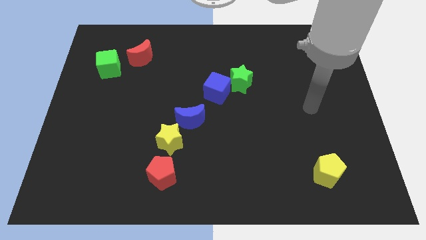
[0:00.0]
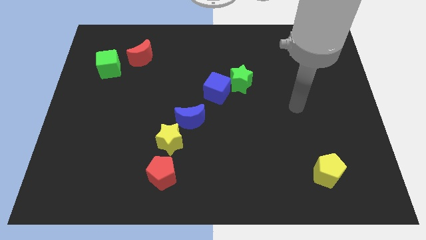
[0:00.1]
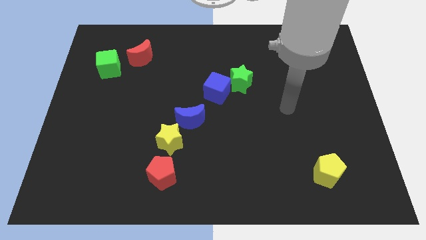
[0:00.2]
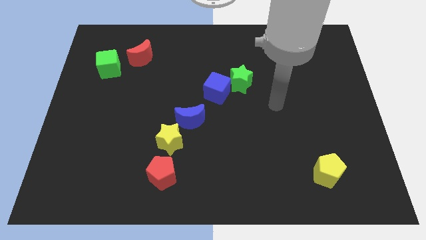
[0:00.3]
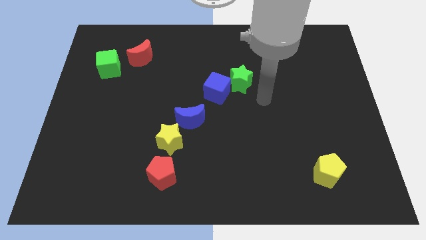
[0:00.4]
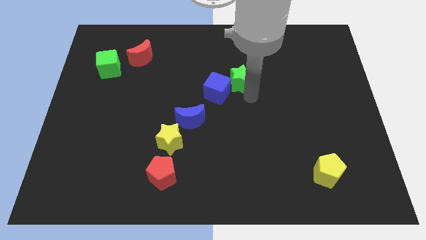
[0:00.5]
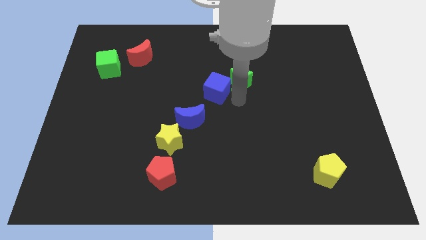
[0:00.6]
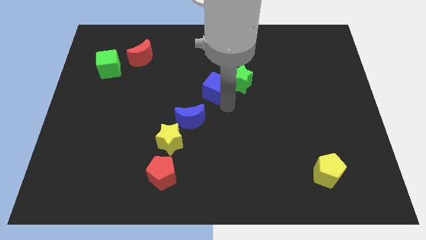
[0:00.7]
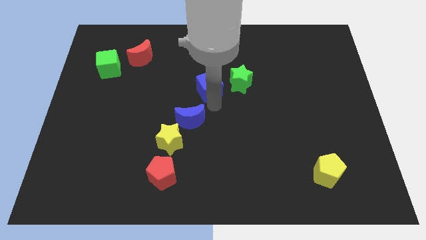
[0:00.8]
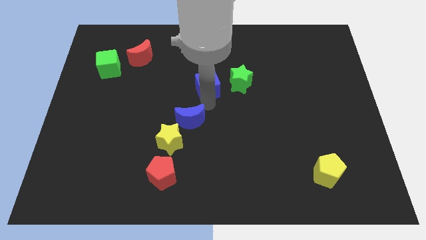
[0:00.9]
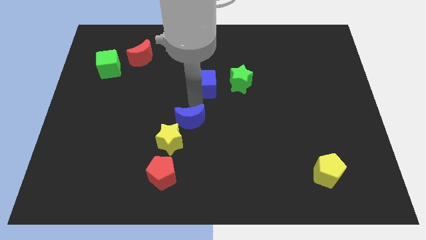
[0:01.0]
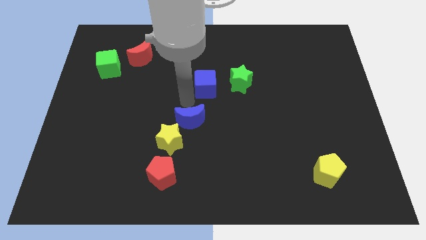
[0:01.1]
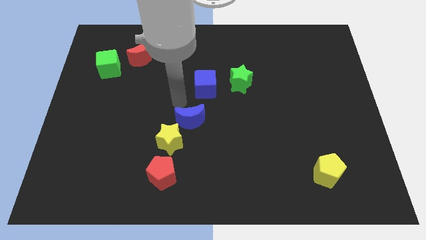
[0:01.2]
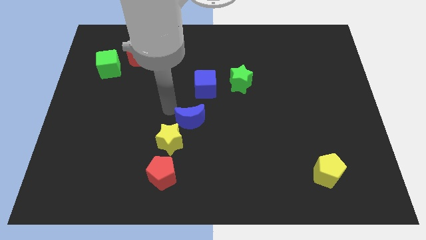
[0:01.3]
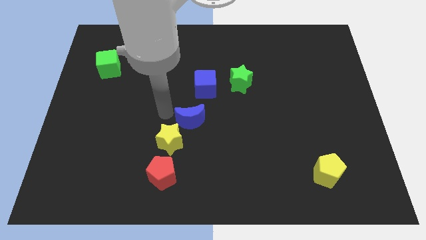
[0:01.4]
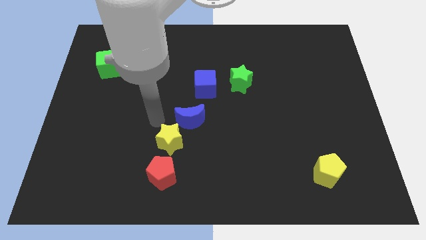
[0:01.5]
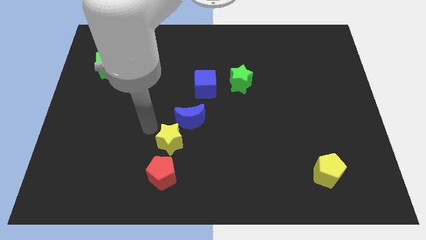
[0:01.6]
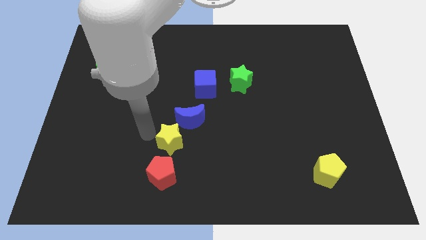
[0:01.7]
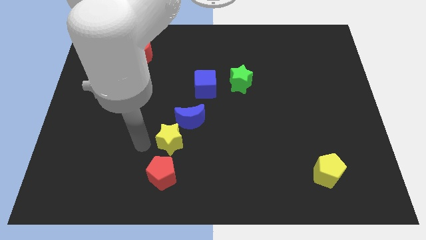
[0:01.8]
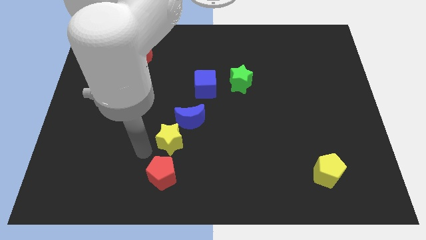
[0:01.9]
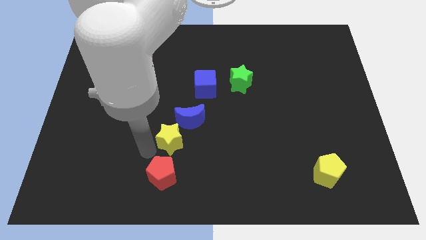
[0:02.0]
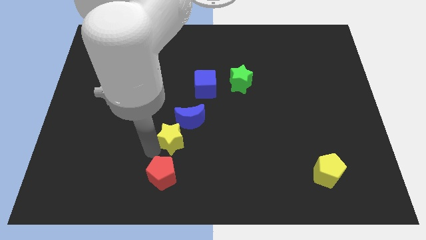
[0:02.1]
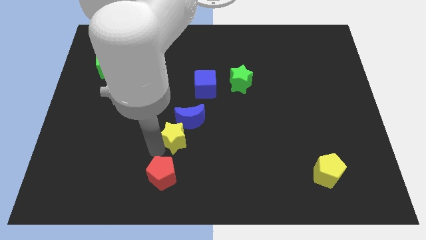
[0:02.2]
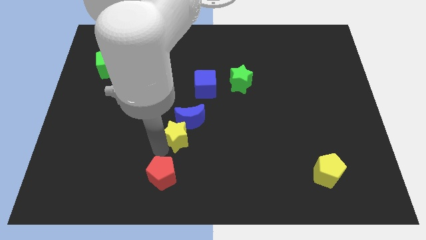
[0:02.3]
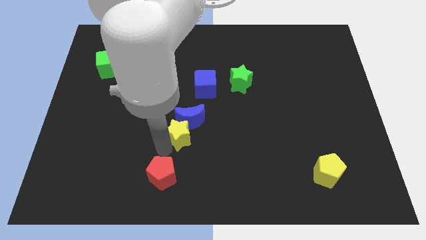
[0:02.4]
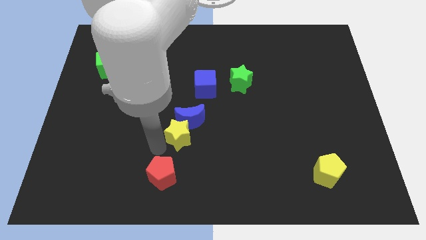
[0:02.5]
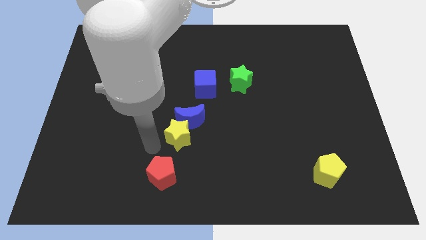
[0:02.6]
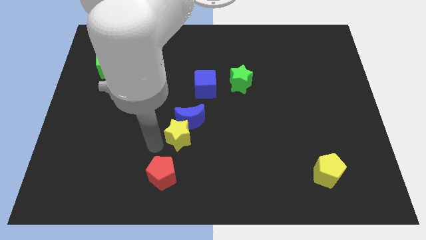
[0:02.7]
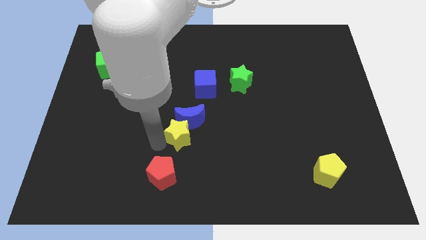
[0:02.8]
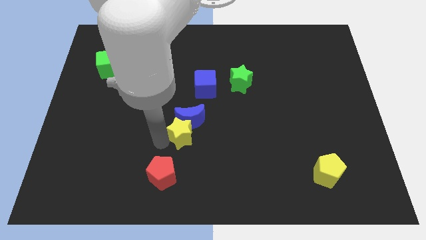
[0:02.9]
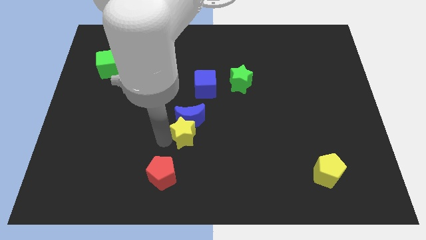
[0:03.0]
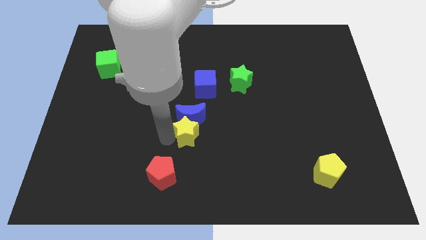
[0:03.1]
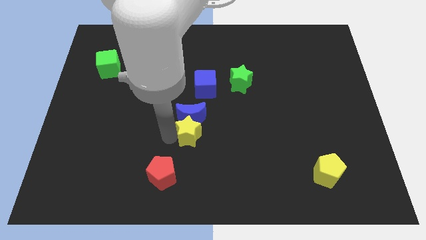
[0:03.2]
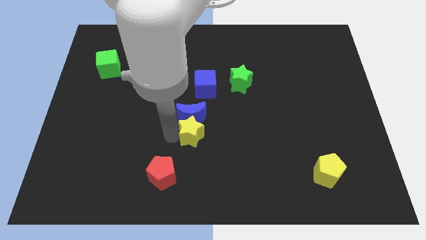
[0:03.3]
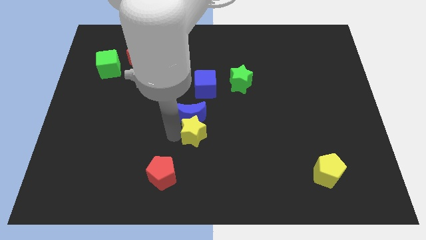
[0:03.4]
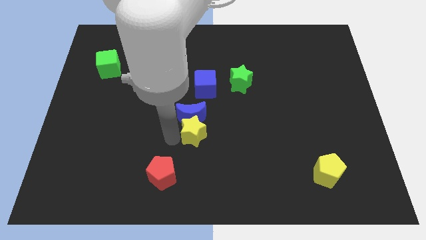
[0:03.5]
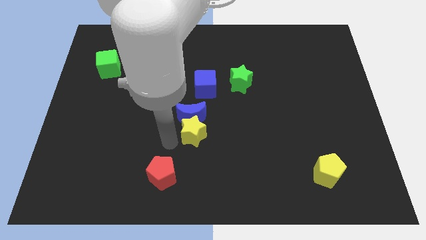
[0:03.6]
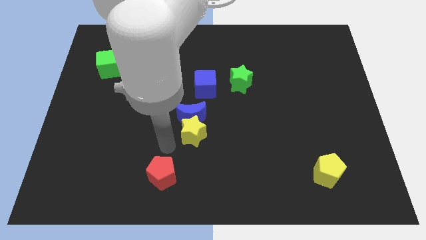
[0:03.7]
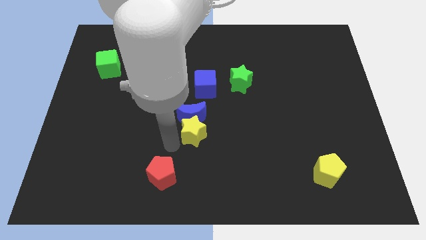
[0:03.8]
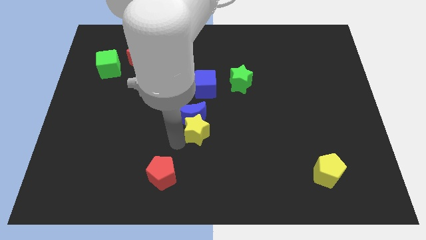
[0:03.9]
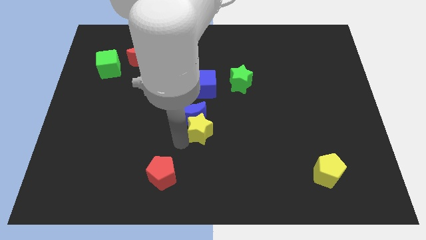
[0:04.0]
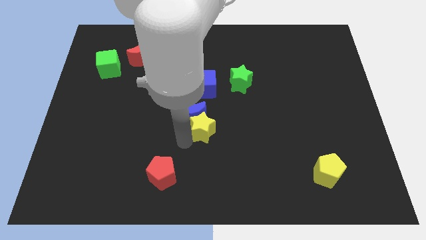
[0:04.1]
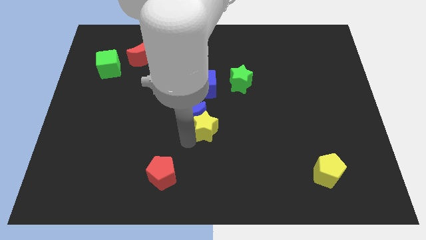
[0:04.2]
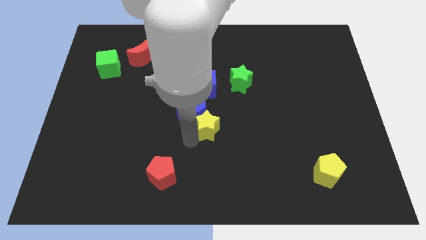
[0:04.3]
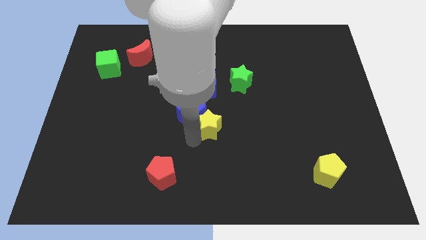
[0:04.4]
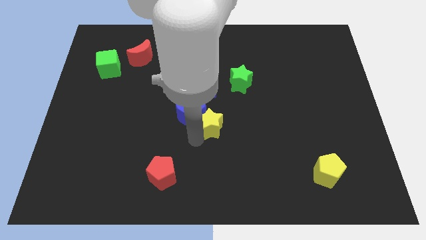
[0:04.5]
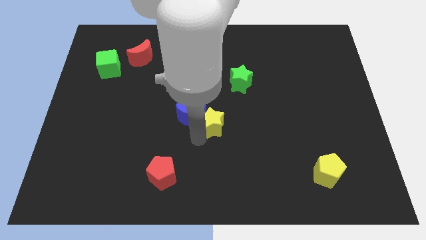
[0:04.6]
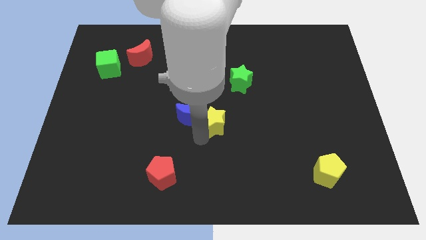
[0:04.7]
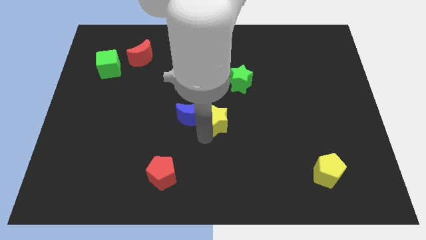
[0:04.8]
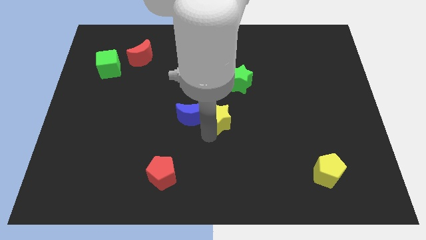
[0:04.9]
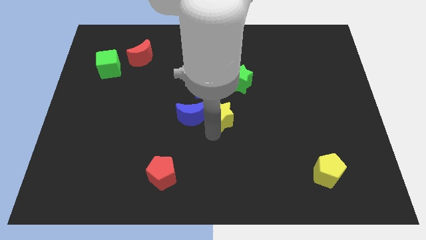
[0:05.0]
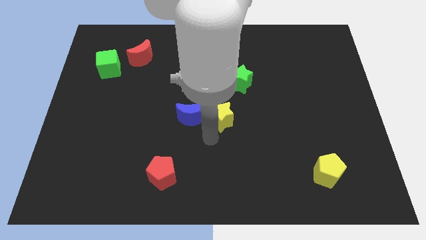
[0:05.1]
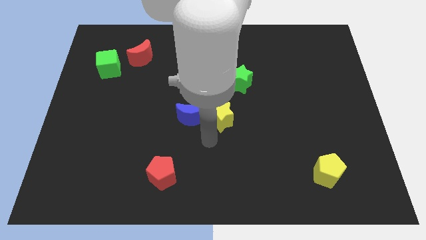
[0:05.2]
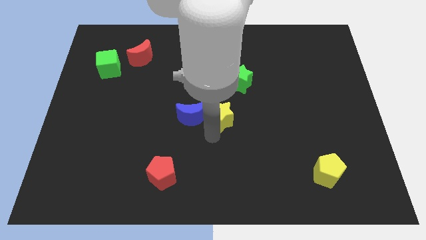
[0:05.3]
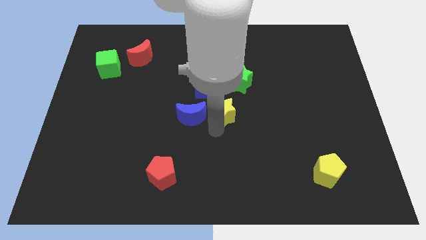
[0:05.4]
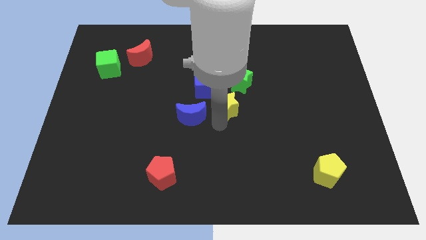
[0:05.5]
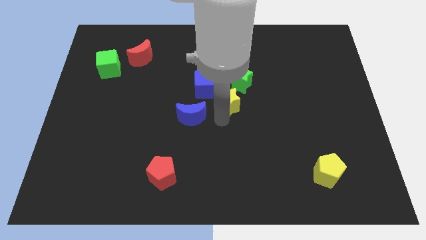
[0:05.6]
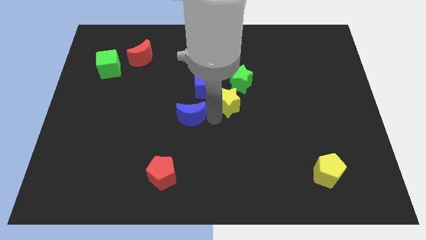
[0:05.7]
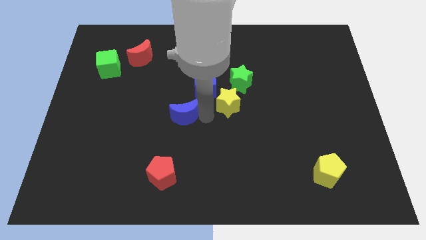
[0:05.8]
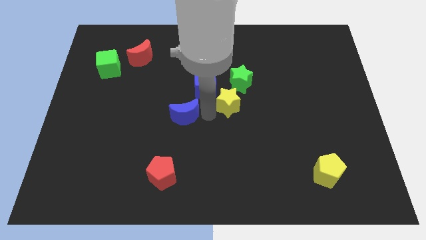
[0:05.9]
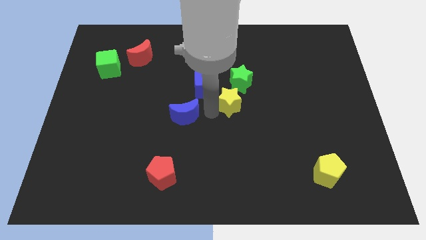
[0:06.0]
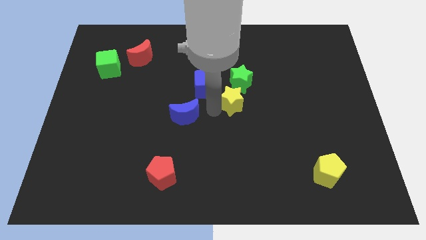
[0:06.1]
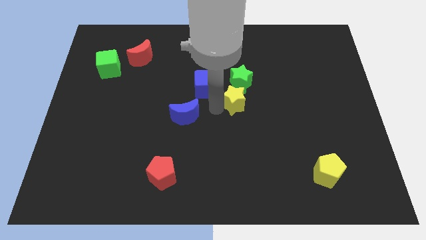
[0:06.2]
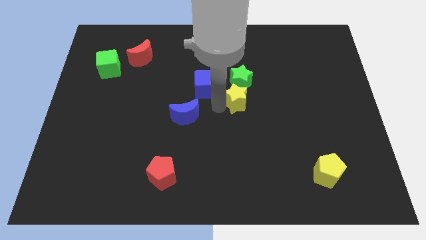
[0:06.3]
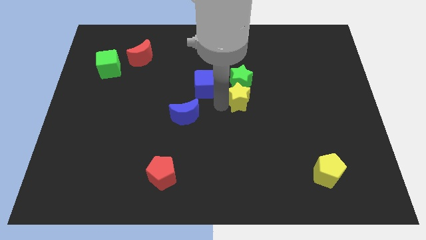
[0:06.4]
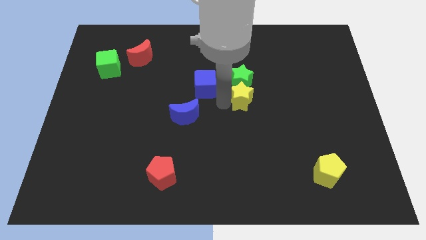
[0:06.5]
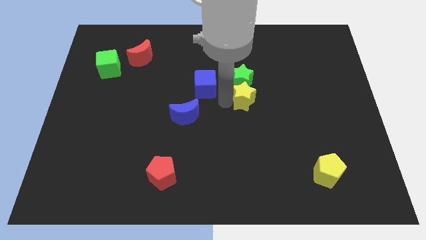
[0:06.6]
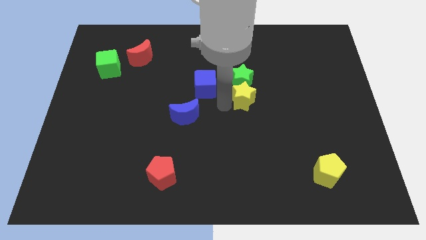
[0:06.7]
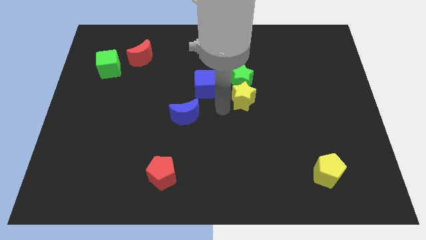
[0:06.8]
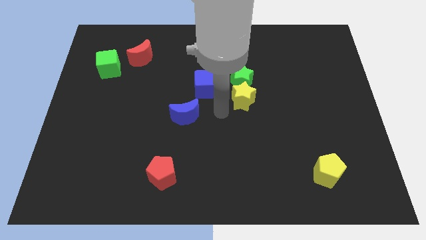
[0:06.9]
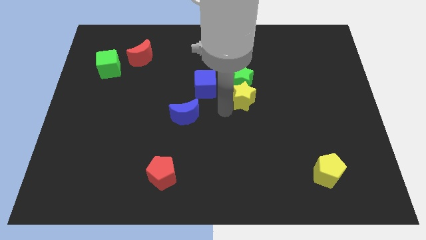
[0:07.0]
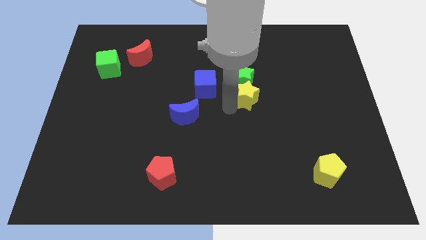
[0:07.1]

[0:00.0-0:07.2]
slide the yellow star diagonally up and right

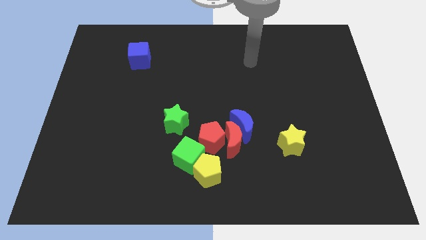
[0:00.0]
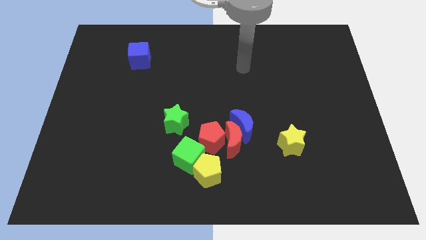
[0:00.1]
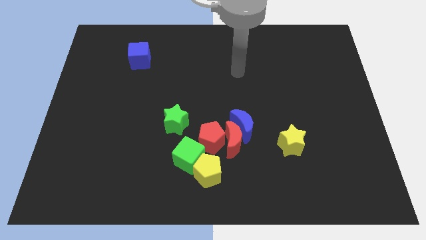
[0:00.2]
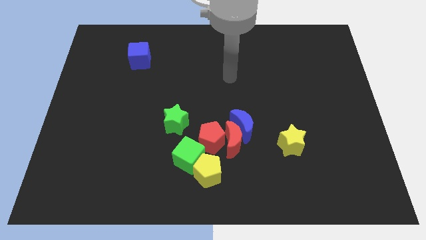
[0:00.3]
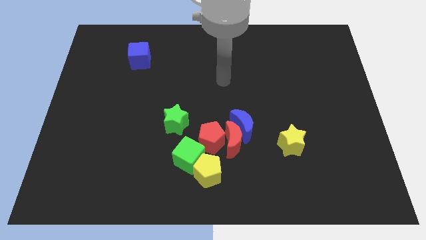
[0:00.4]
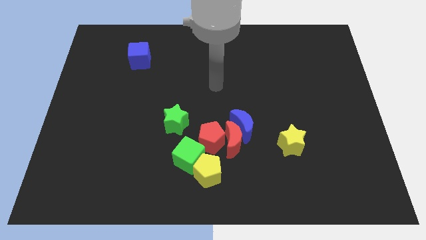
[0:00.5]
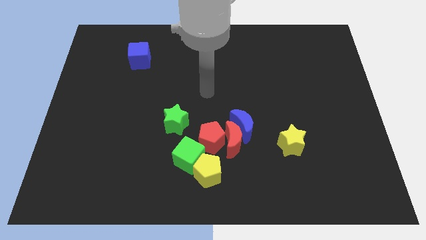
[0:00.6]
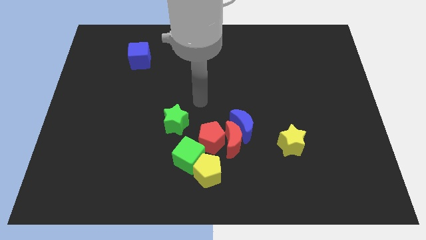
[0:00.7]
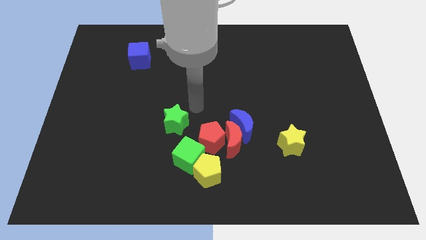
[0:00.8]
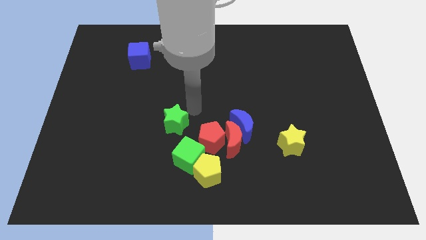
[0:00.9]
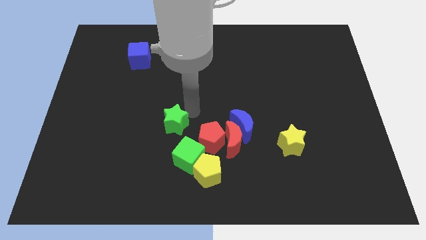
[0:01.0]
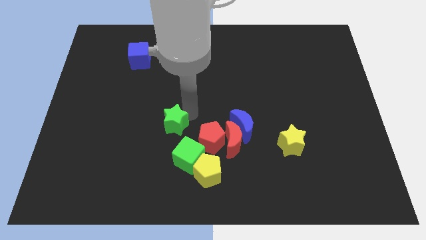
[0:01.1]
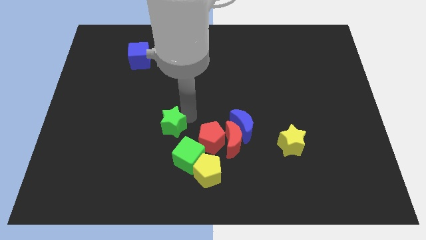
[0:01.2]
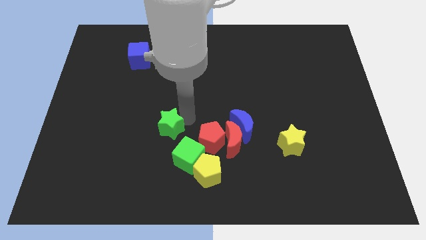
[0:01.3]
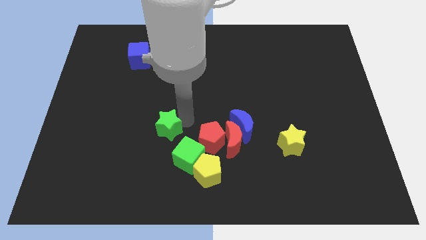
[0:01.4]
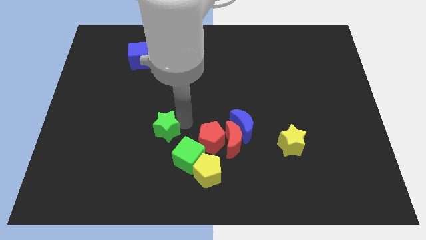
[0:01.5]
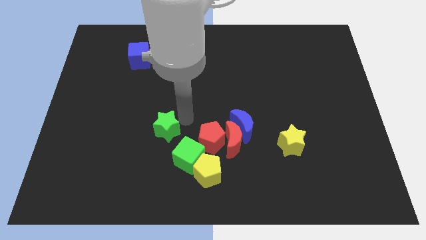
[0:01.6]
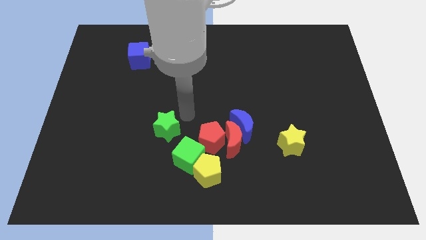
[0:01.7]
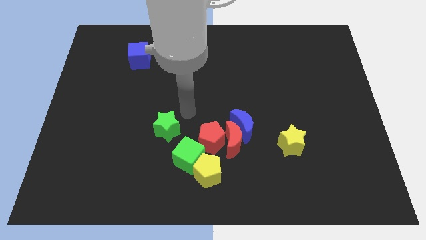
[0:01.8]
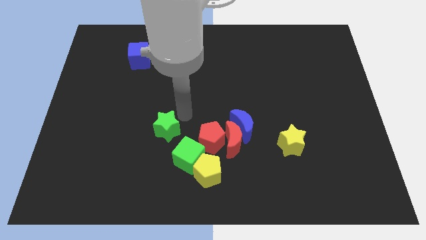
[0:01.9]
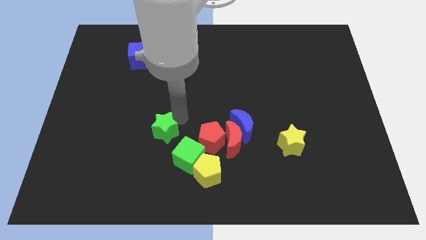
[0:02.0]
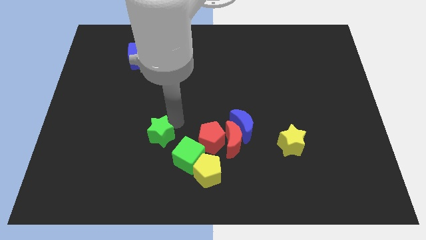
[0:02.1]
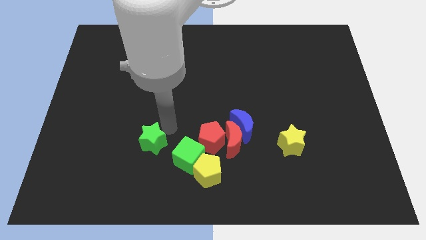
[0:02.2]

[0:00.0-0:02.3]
slightly move the green star downwards and left diagonally
